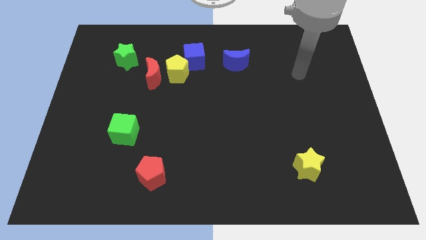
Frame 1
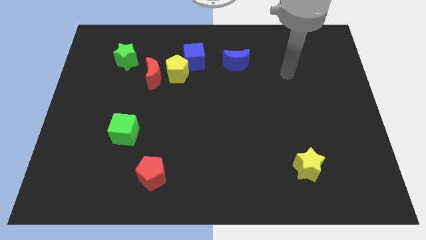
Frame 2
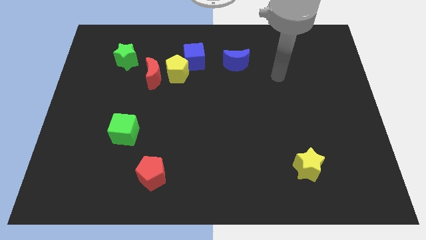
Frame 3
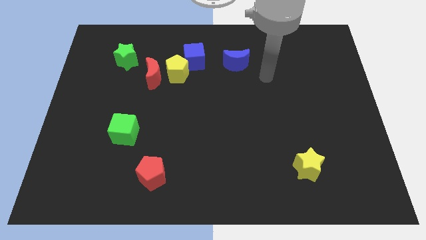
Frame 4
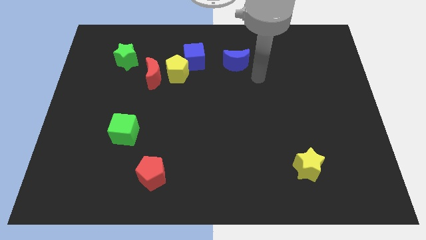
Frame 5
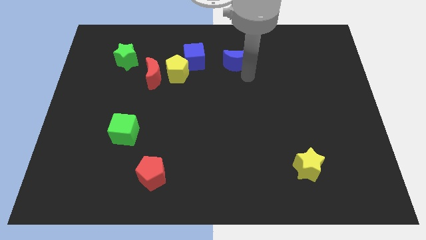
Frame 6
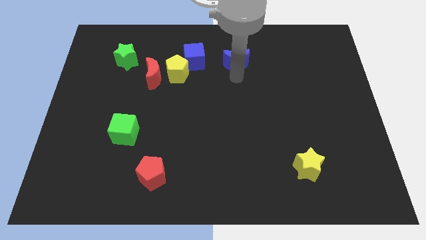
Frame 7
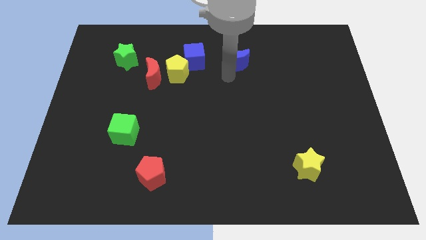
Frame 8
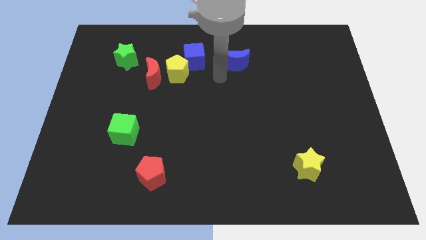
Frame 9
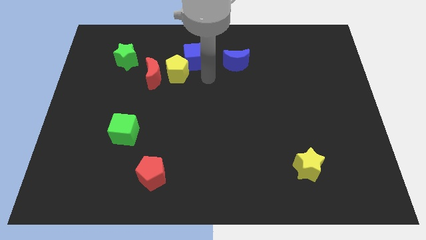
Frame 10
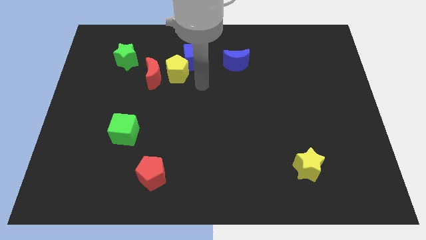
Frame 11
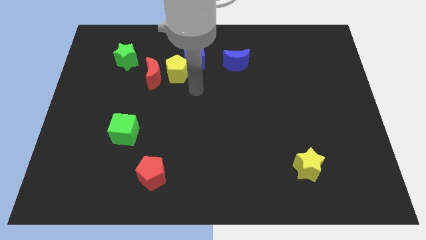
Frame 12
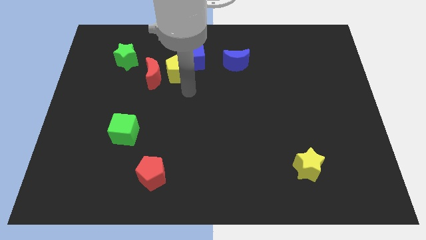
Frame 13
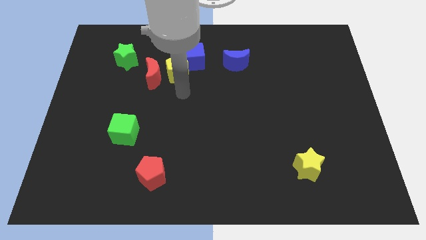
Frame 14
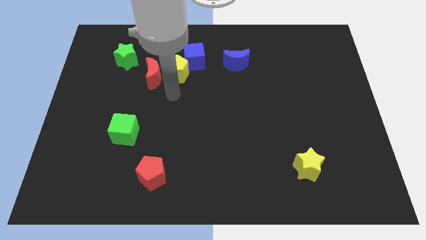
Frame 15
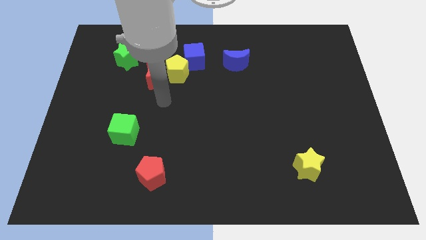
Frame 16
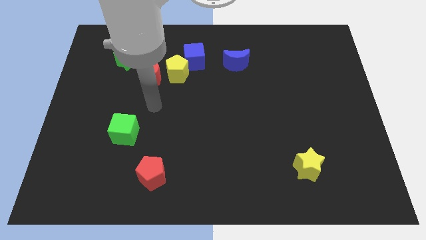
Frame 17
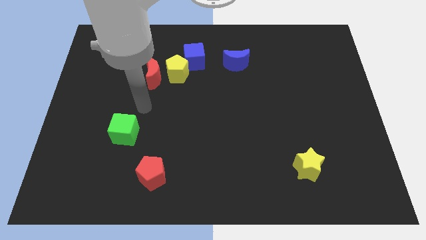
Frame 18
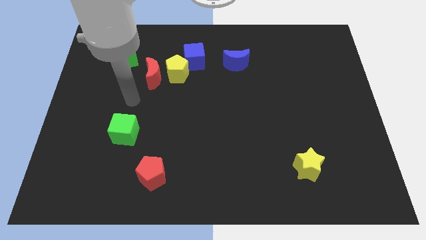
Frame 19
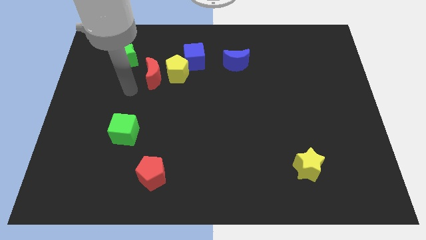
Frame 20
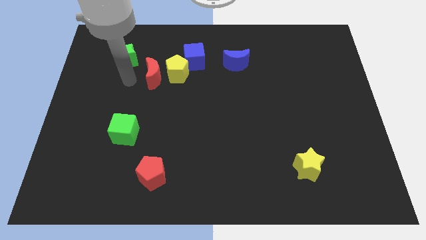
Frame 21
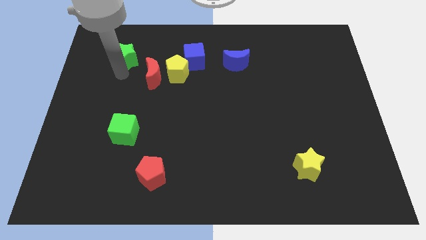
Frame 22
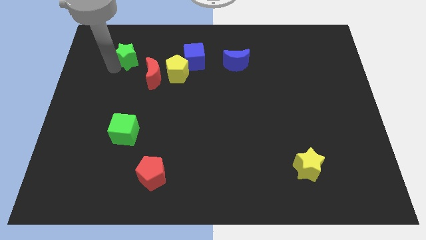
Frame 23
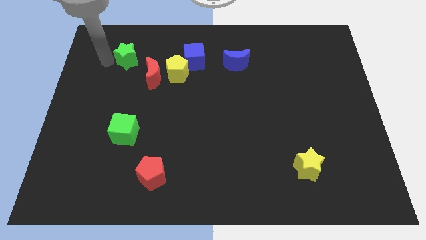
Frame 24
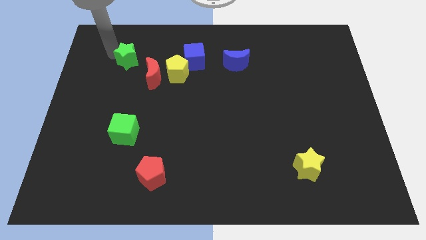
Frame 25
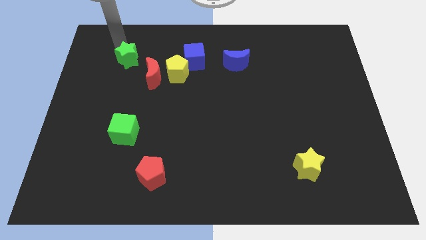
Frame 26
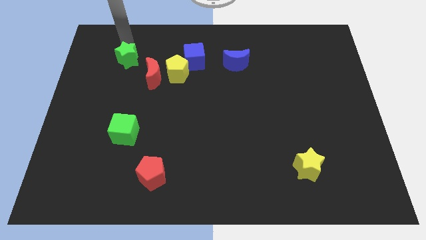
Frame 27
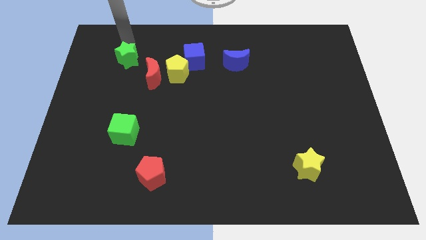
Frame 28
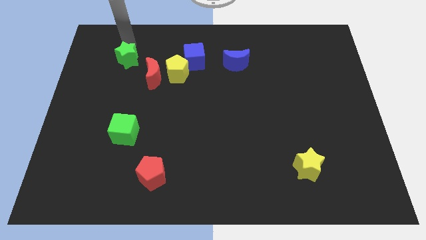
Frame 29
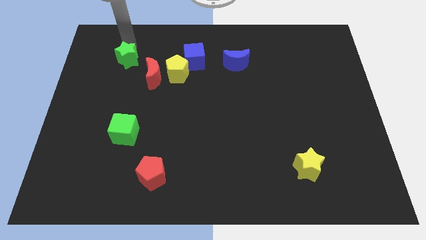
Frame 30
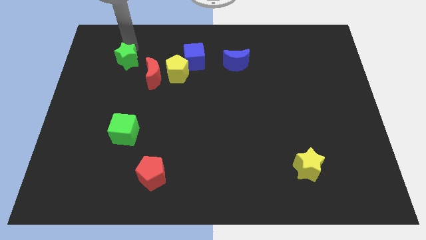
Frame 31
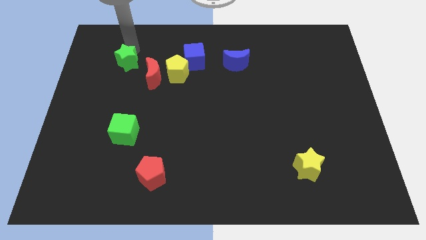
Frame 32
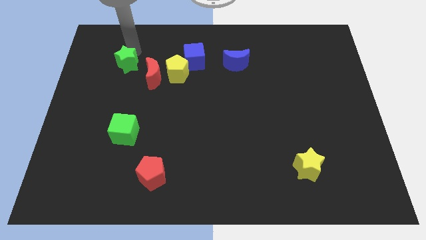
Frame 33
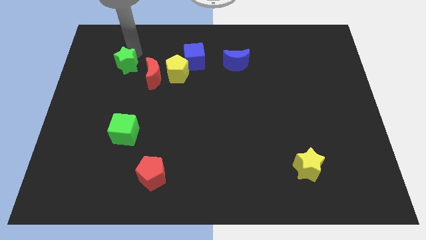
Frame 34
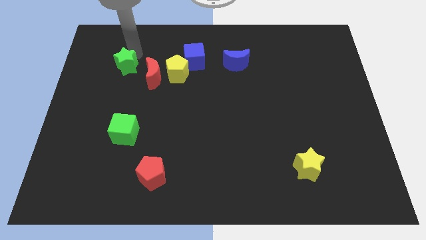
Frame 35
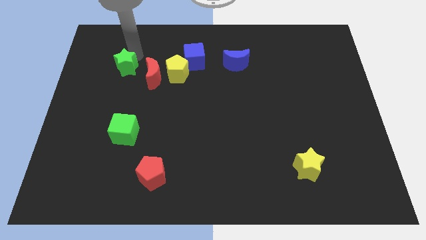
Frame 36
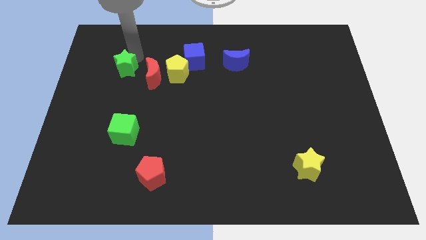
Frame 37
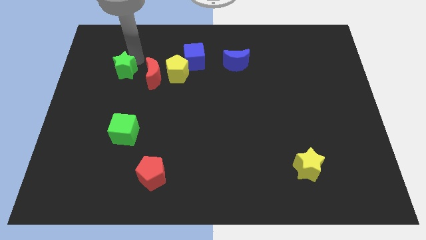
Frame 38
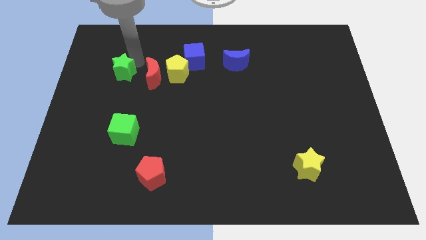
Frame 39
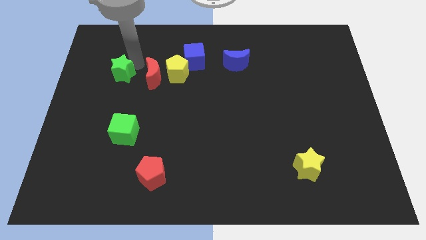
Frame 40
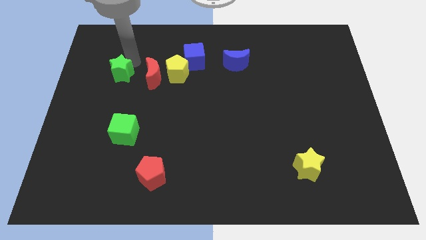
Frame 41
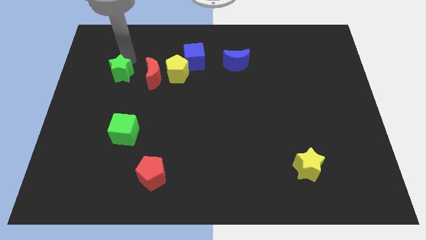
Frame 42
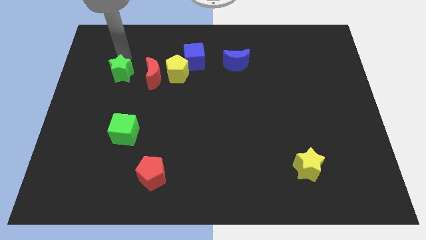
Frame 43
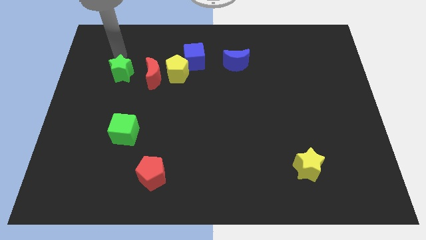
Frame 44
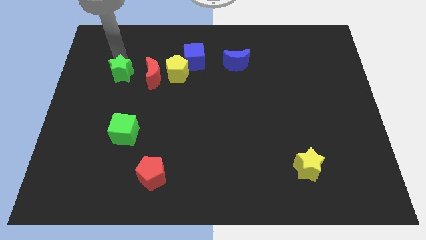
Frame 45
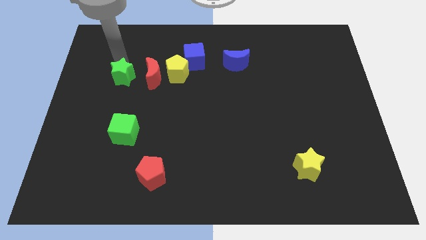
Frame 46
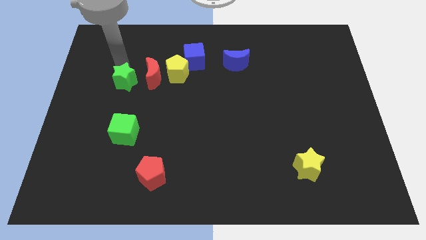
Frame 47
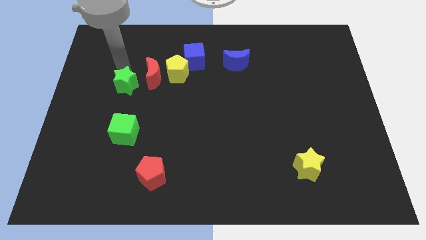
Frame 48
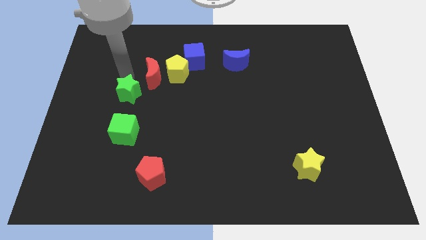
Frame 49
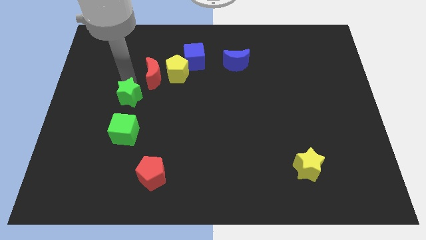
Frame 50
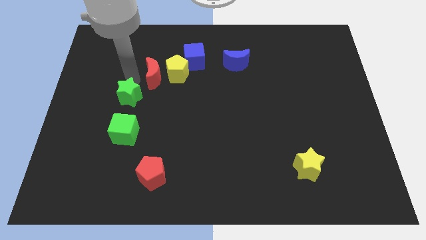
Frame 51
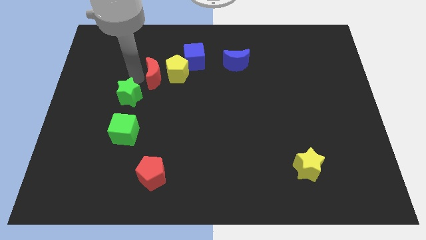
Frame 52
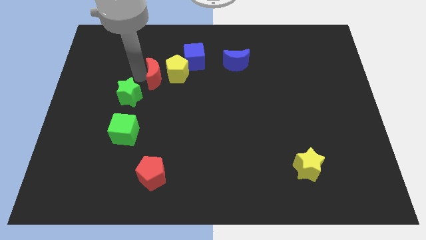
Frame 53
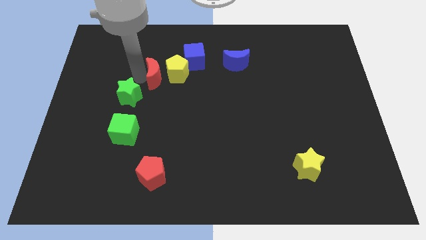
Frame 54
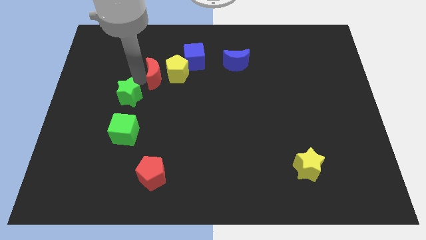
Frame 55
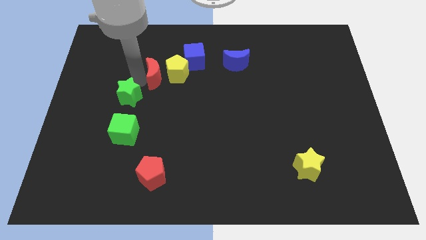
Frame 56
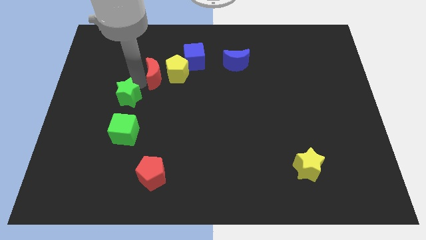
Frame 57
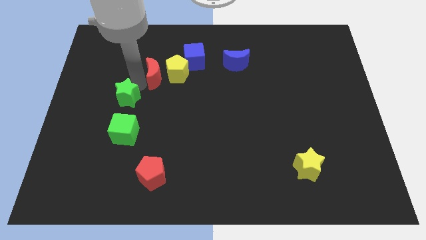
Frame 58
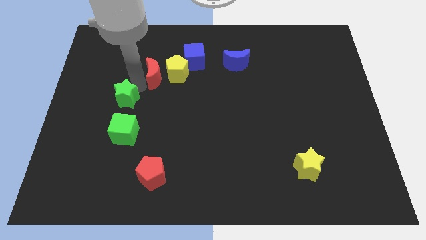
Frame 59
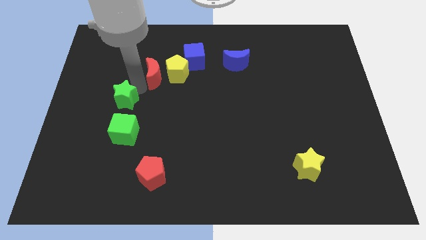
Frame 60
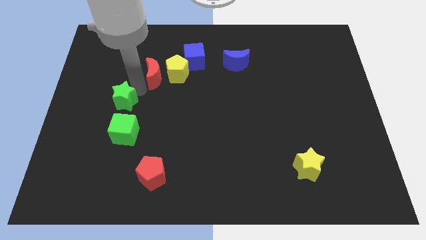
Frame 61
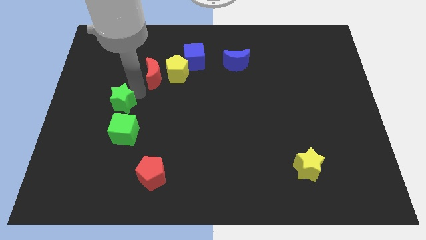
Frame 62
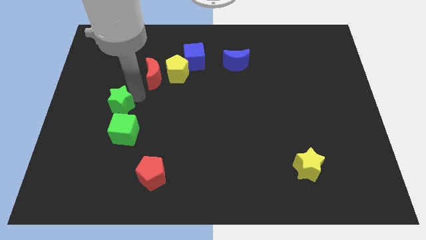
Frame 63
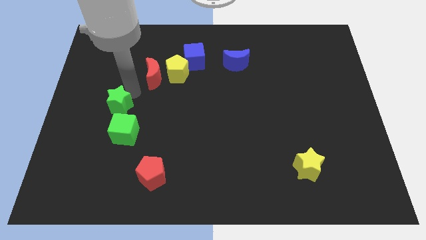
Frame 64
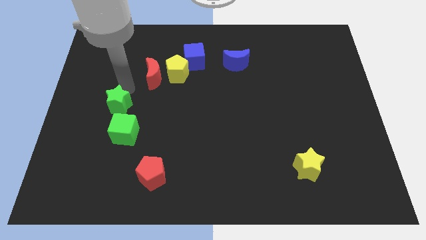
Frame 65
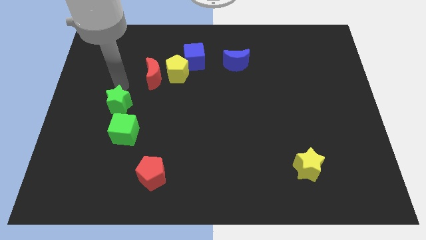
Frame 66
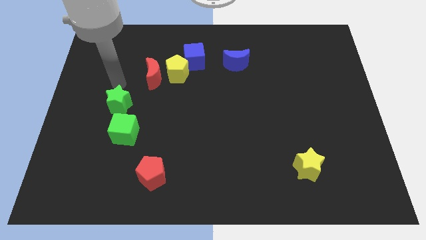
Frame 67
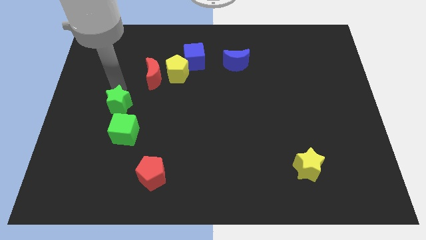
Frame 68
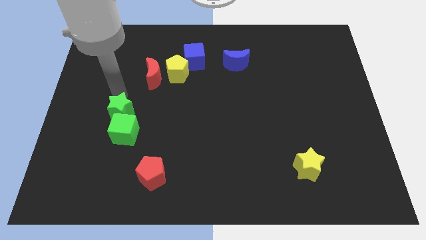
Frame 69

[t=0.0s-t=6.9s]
move the green star to the green cube

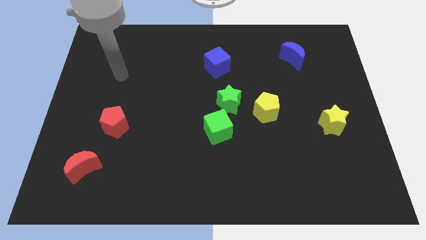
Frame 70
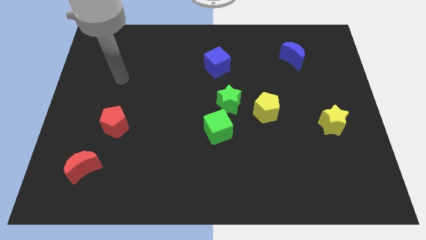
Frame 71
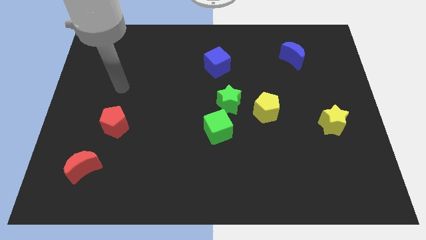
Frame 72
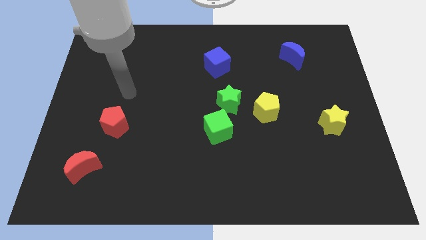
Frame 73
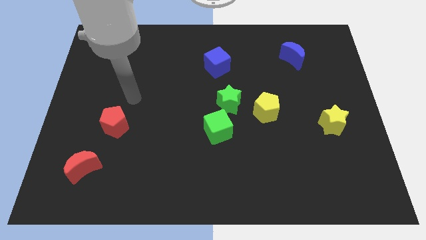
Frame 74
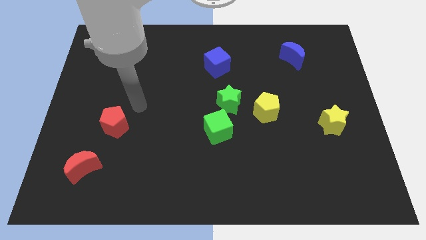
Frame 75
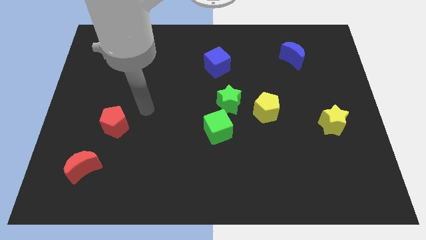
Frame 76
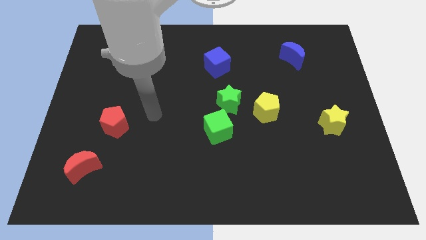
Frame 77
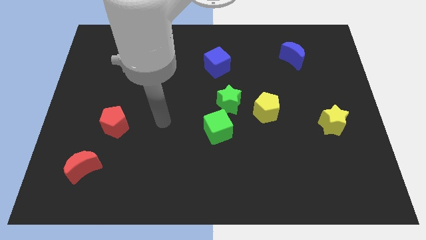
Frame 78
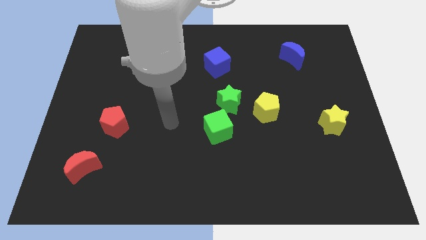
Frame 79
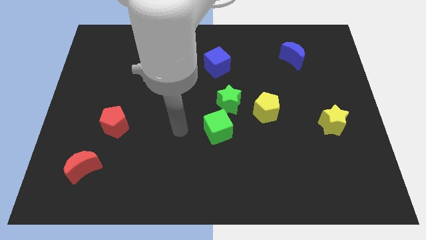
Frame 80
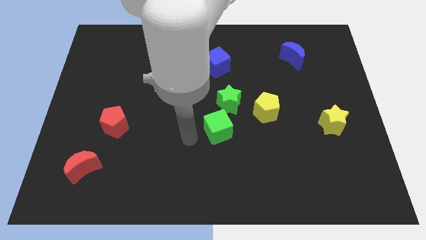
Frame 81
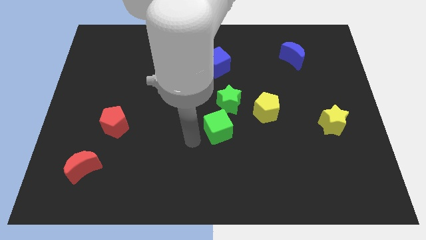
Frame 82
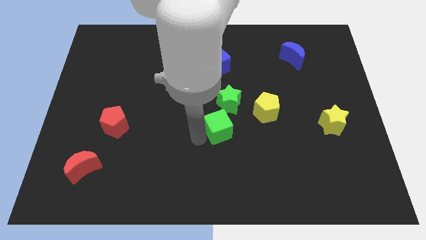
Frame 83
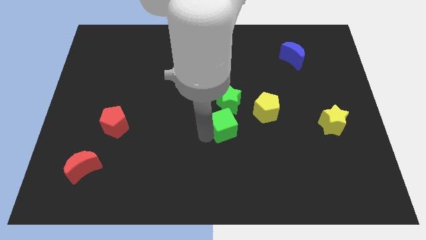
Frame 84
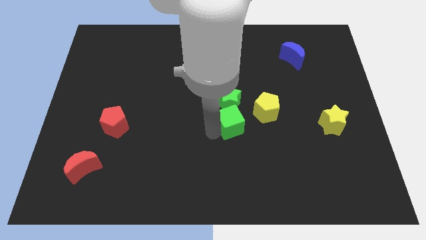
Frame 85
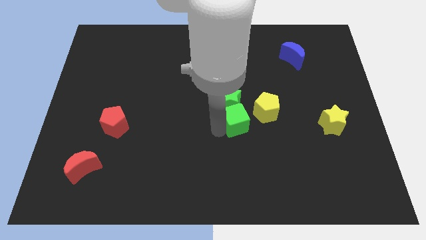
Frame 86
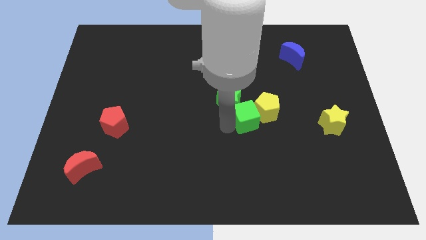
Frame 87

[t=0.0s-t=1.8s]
slide the green cube to the yellow pentagon
